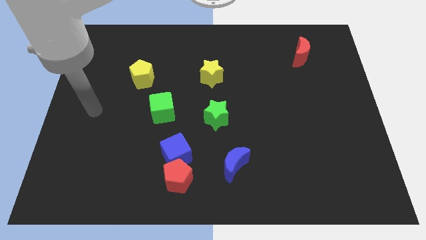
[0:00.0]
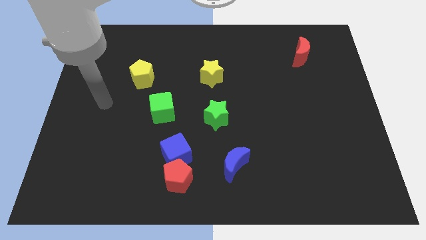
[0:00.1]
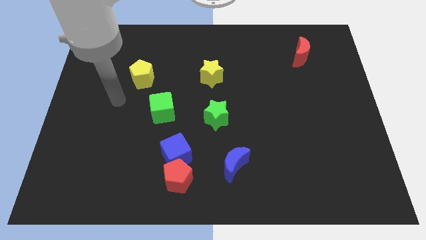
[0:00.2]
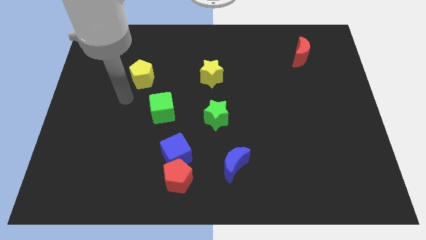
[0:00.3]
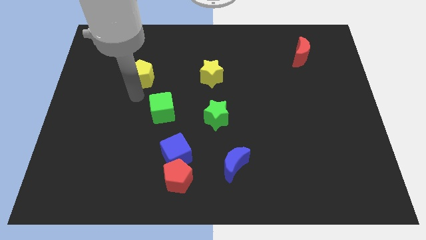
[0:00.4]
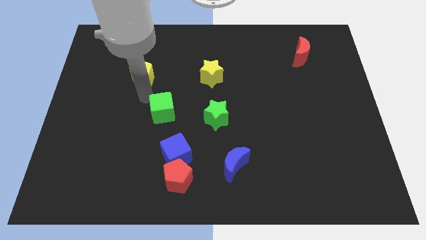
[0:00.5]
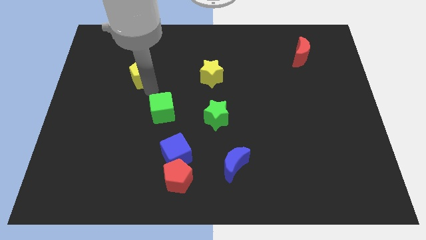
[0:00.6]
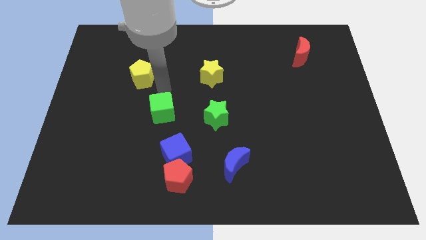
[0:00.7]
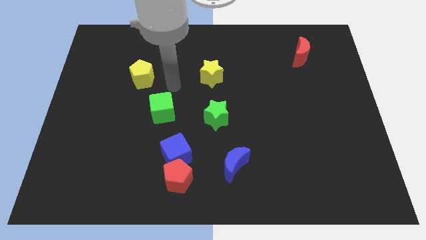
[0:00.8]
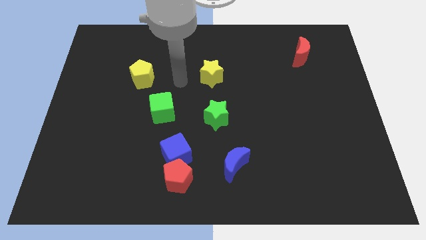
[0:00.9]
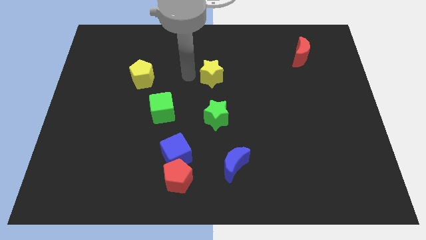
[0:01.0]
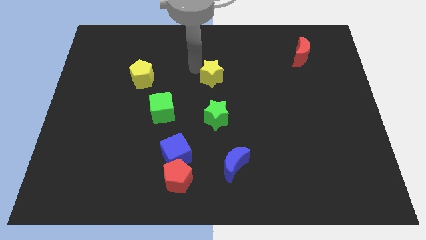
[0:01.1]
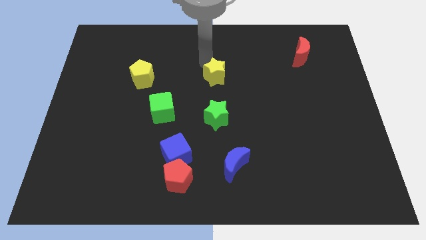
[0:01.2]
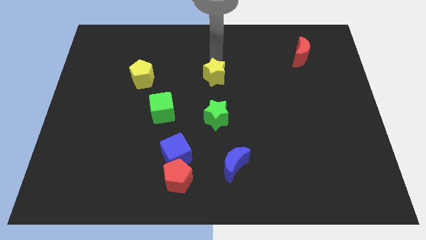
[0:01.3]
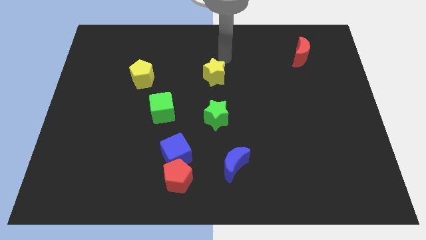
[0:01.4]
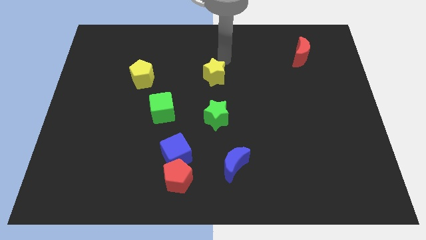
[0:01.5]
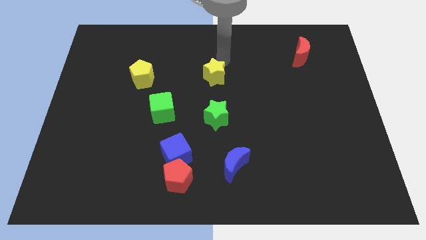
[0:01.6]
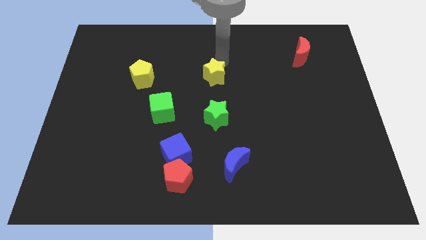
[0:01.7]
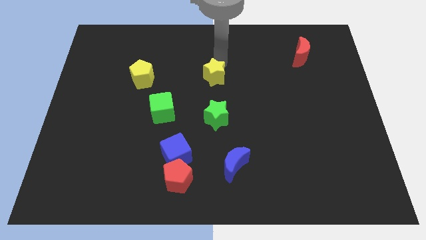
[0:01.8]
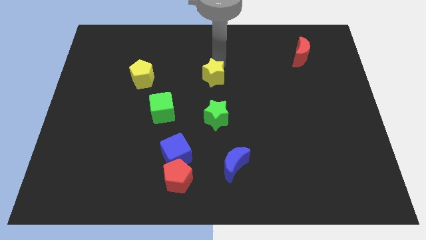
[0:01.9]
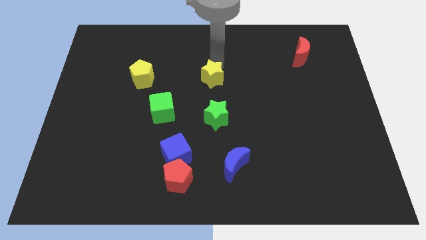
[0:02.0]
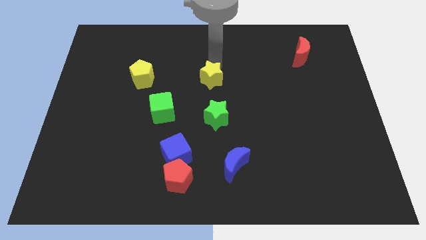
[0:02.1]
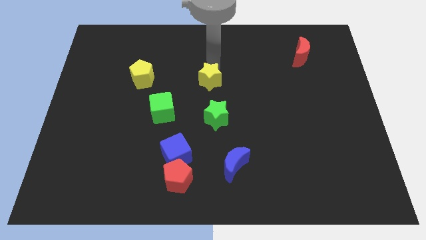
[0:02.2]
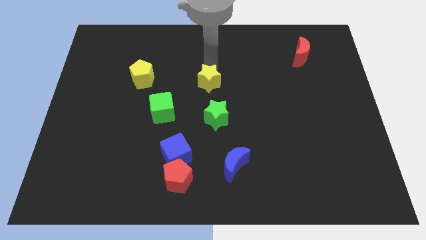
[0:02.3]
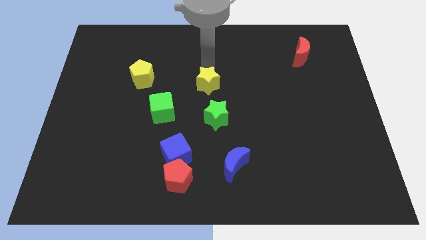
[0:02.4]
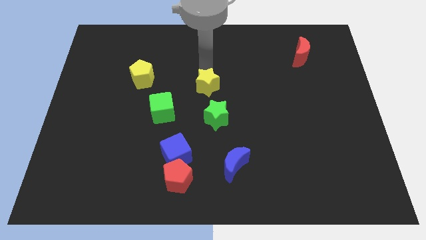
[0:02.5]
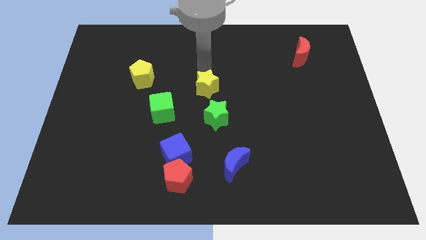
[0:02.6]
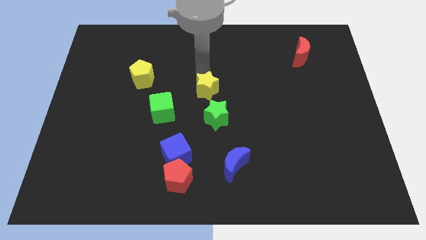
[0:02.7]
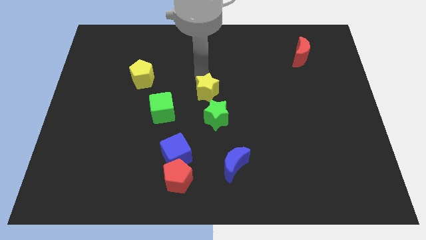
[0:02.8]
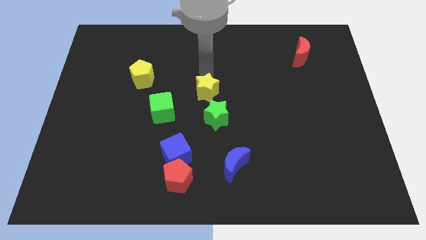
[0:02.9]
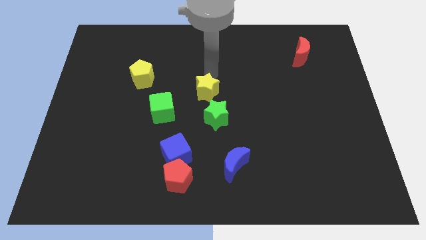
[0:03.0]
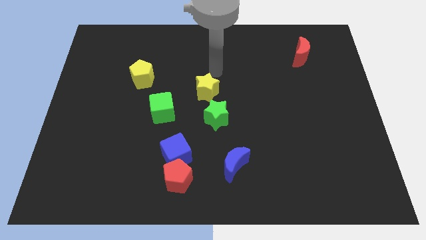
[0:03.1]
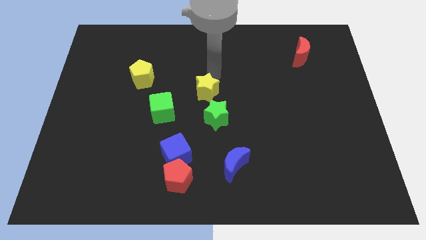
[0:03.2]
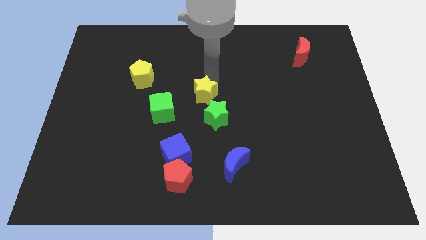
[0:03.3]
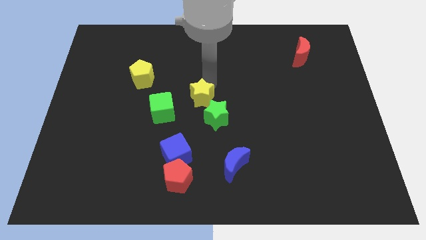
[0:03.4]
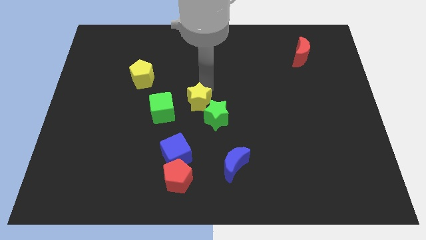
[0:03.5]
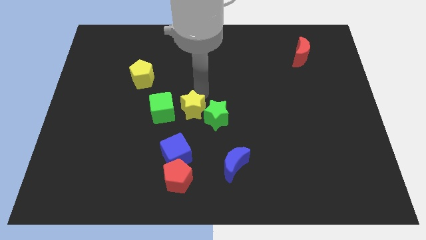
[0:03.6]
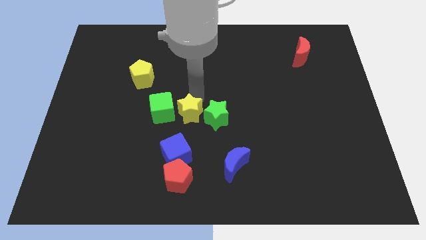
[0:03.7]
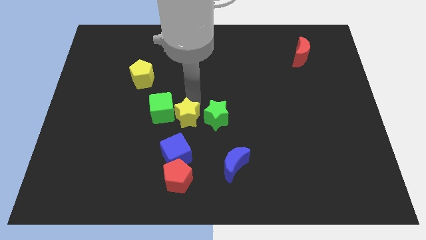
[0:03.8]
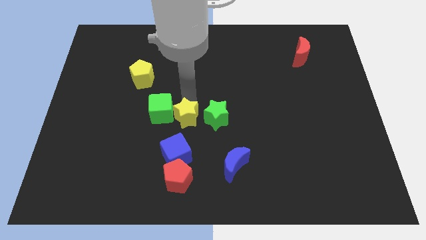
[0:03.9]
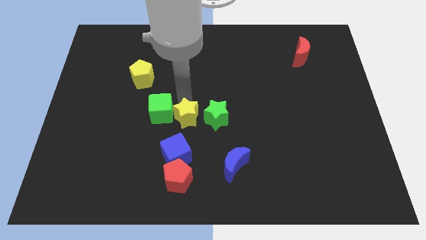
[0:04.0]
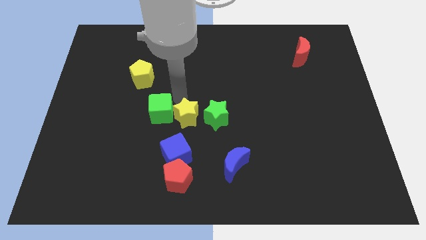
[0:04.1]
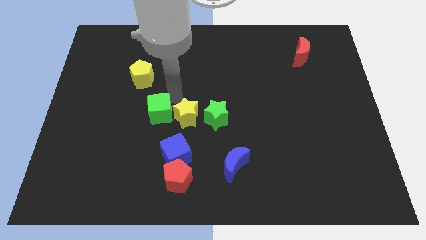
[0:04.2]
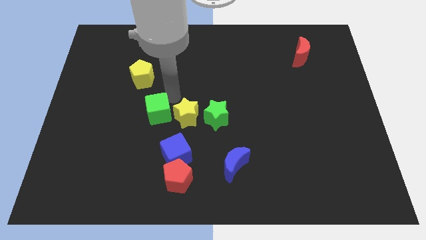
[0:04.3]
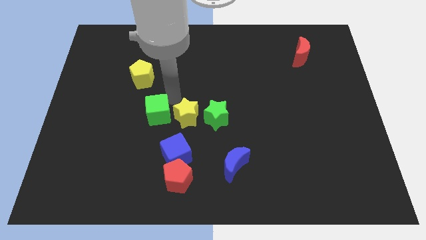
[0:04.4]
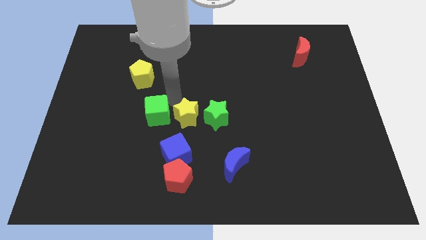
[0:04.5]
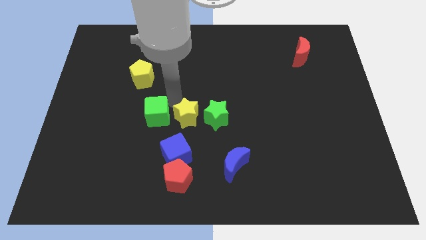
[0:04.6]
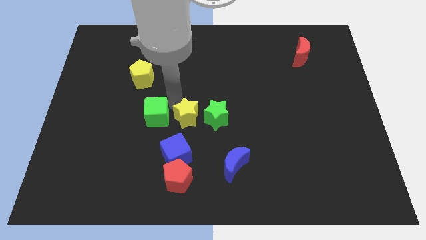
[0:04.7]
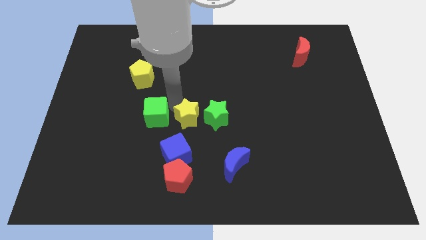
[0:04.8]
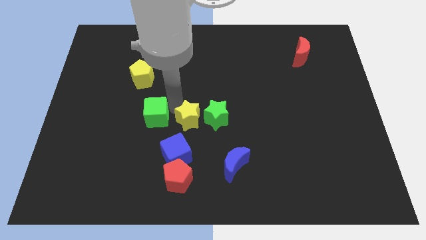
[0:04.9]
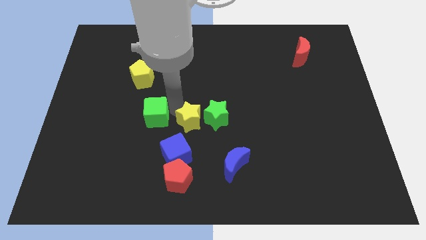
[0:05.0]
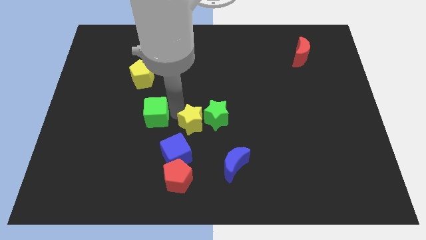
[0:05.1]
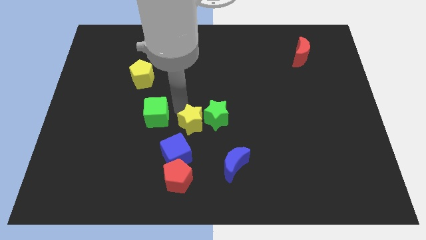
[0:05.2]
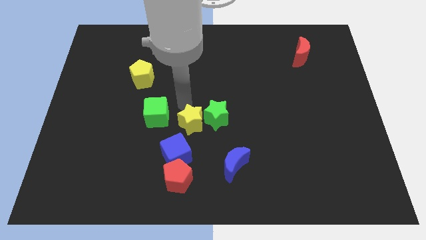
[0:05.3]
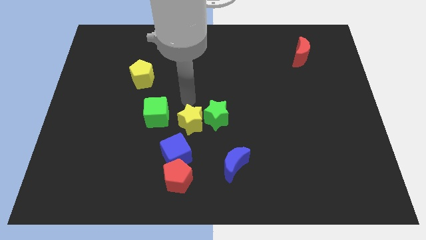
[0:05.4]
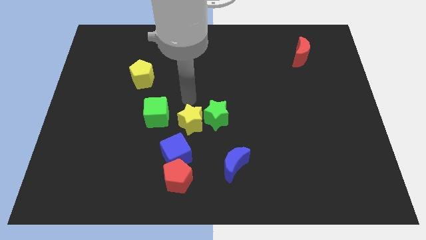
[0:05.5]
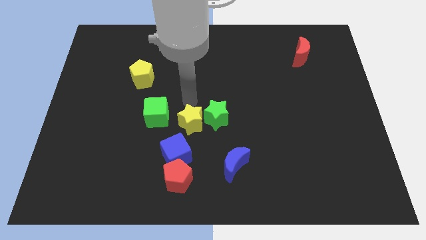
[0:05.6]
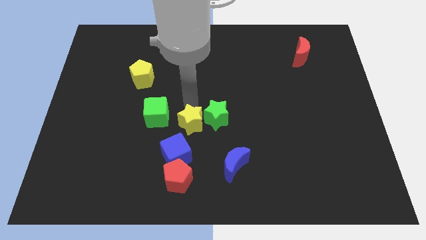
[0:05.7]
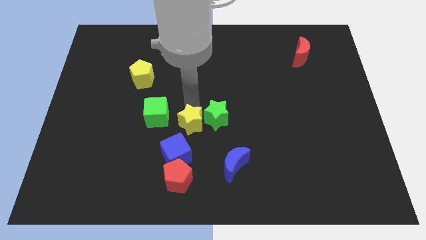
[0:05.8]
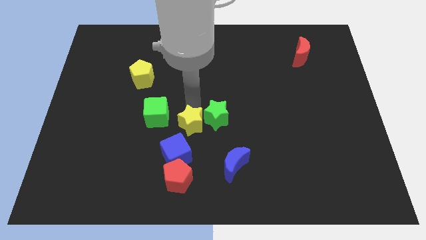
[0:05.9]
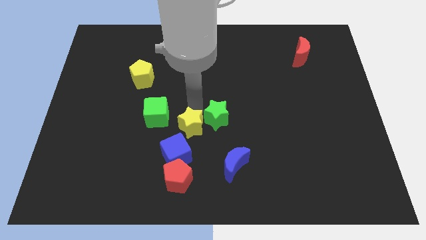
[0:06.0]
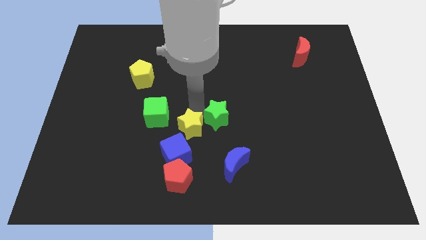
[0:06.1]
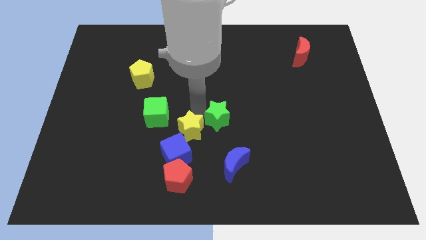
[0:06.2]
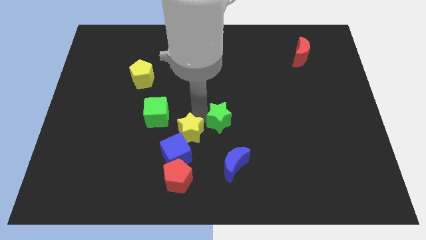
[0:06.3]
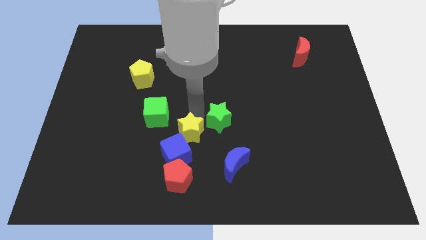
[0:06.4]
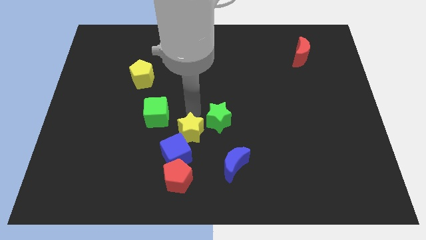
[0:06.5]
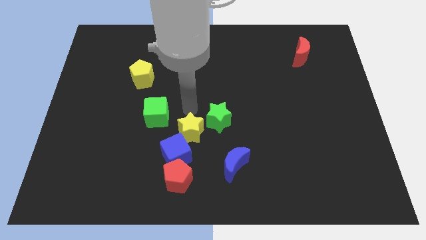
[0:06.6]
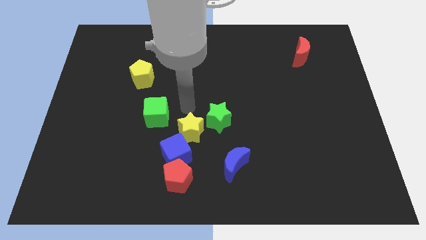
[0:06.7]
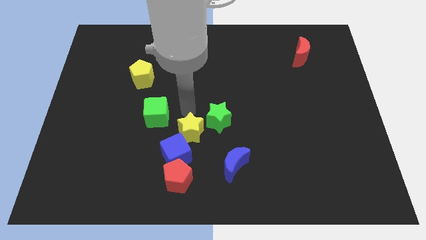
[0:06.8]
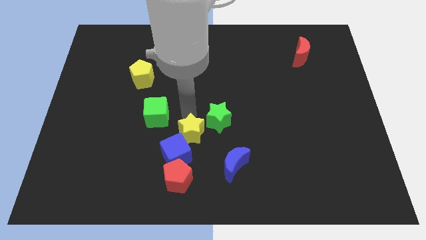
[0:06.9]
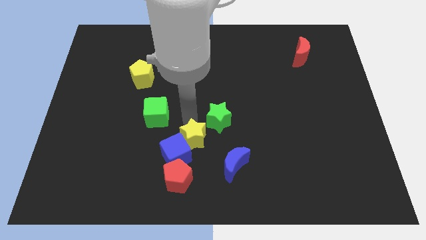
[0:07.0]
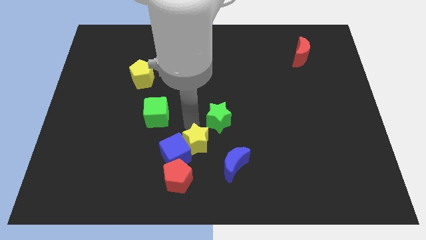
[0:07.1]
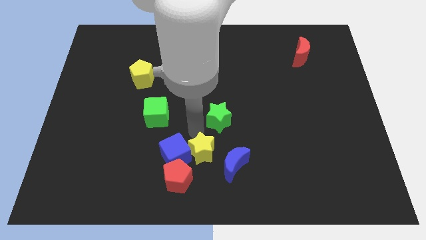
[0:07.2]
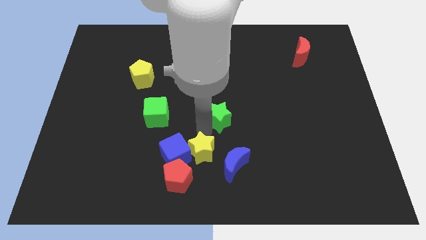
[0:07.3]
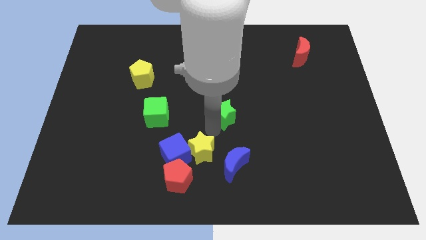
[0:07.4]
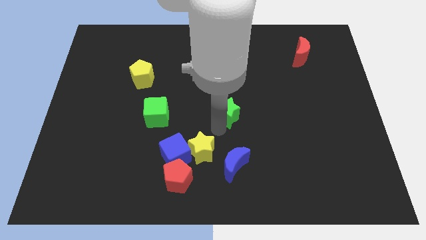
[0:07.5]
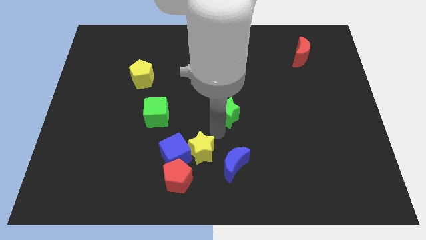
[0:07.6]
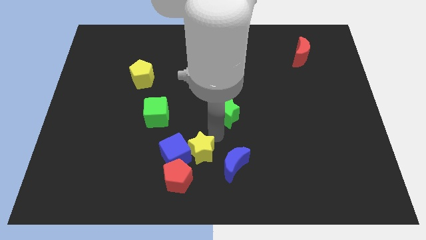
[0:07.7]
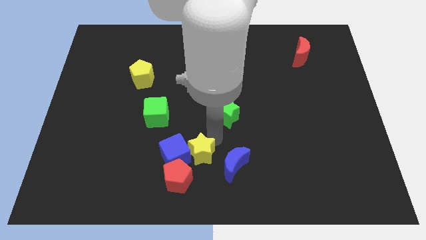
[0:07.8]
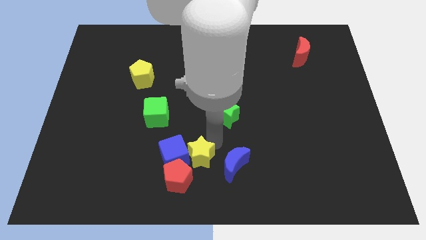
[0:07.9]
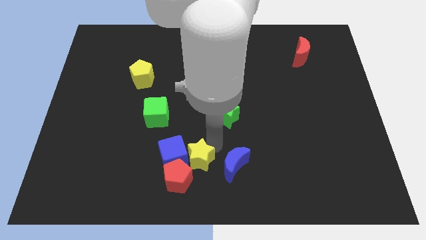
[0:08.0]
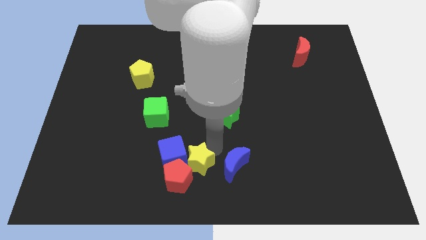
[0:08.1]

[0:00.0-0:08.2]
slide the yellow star towards the red pentagon
